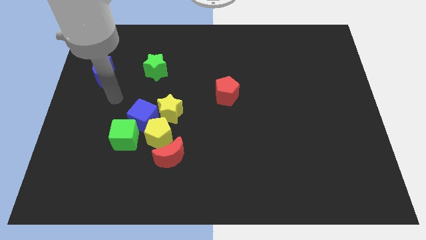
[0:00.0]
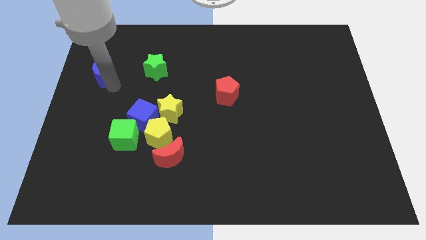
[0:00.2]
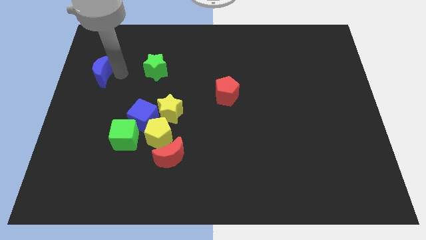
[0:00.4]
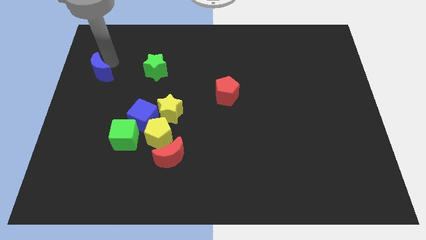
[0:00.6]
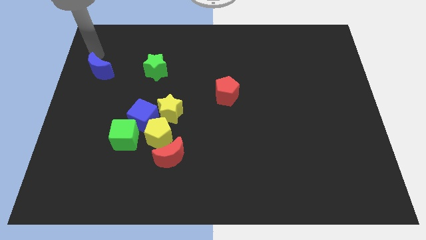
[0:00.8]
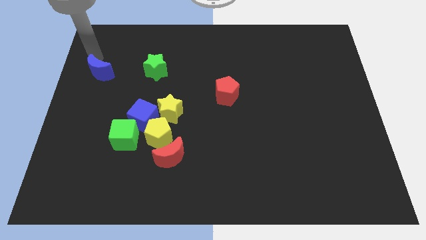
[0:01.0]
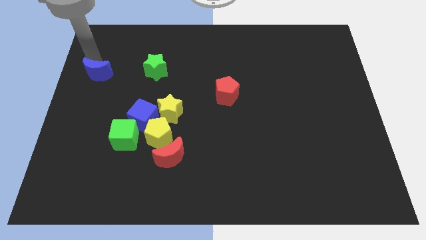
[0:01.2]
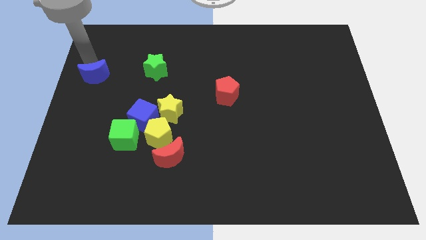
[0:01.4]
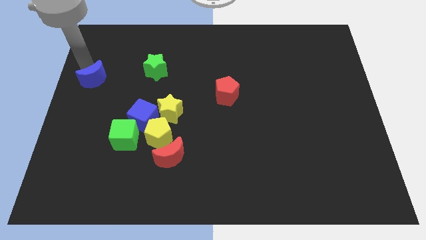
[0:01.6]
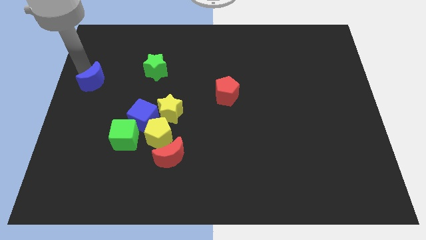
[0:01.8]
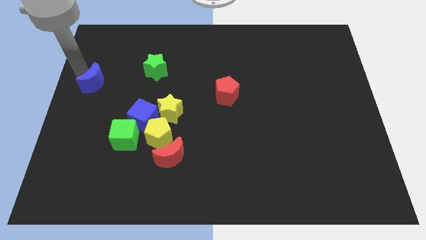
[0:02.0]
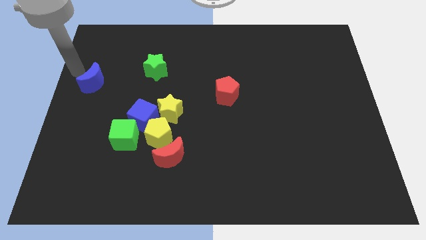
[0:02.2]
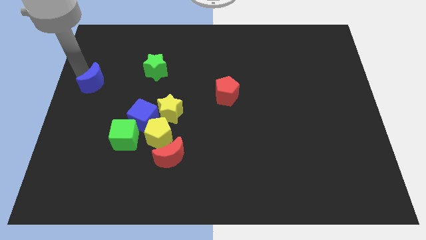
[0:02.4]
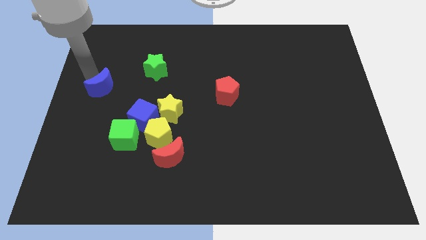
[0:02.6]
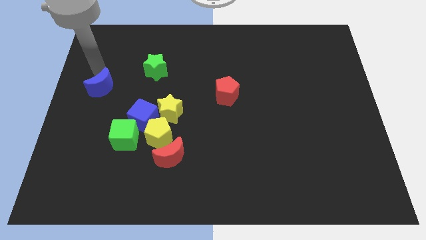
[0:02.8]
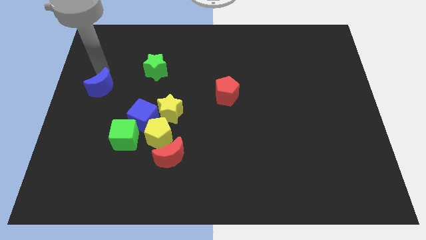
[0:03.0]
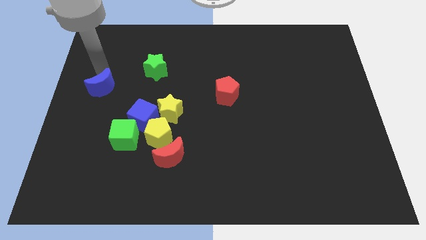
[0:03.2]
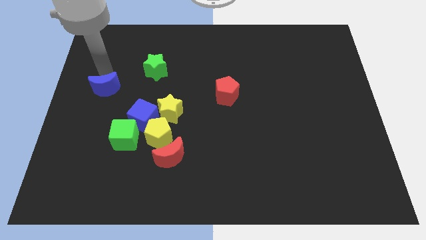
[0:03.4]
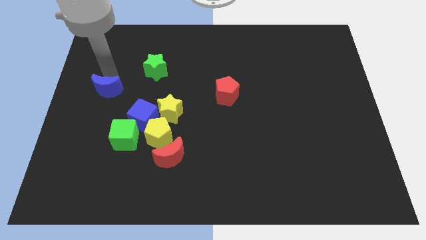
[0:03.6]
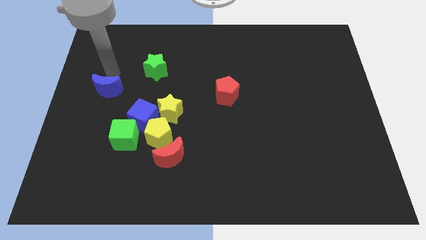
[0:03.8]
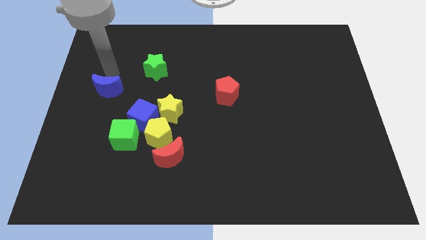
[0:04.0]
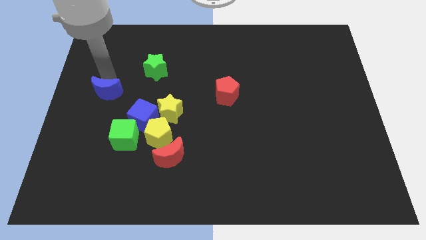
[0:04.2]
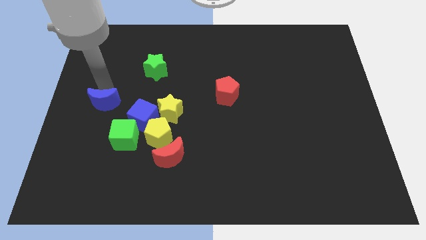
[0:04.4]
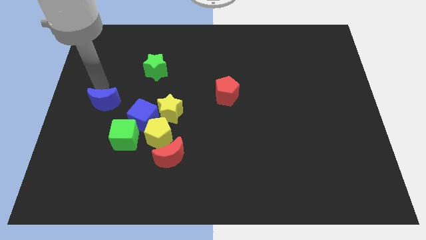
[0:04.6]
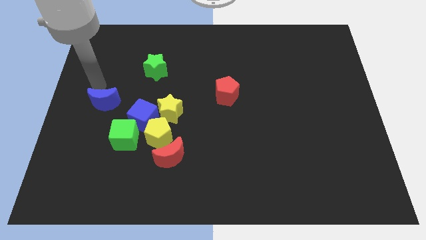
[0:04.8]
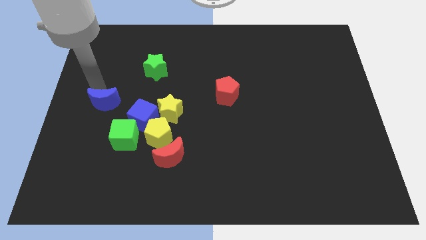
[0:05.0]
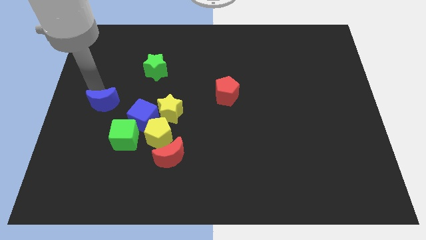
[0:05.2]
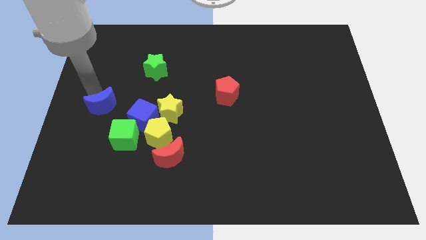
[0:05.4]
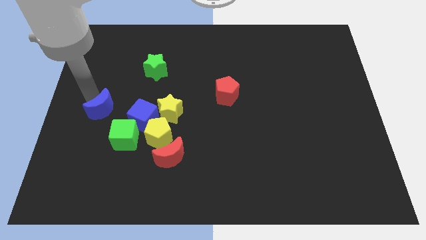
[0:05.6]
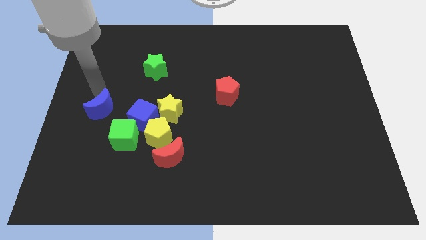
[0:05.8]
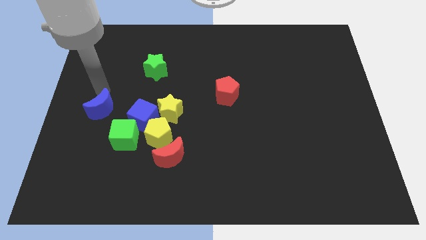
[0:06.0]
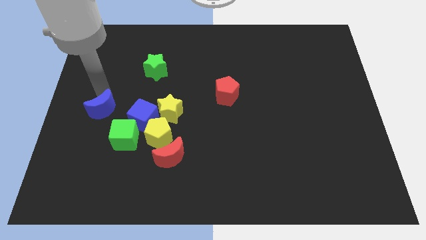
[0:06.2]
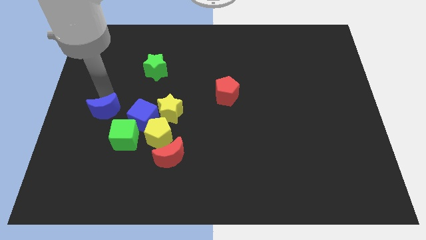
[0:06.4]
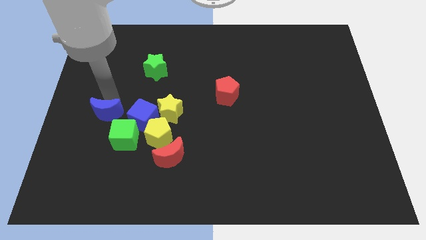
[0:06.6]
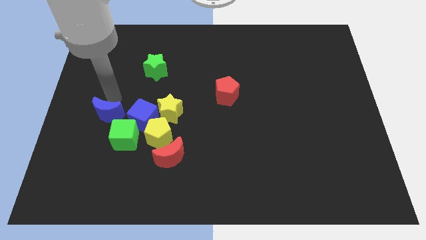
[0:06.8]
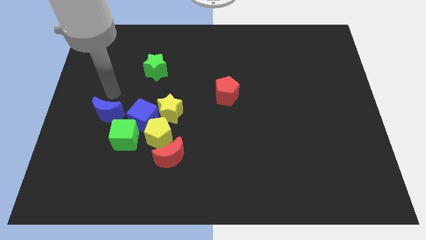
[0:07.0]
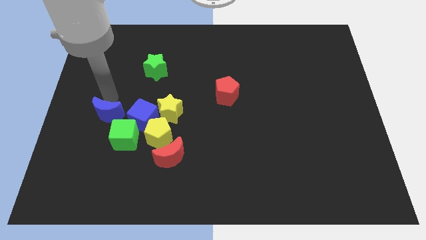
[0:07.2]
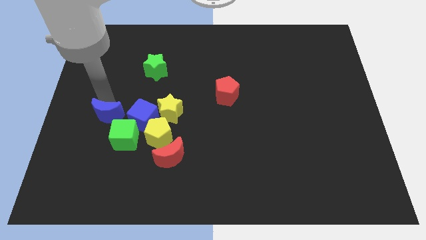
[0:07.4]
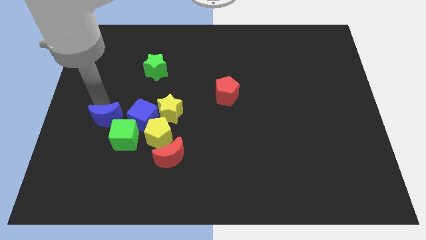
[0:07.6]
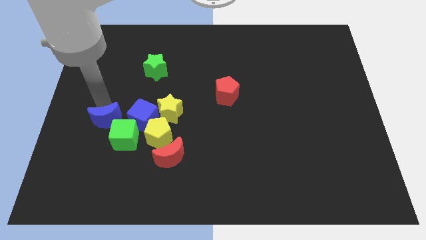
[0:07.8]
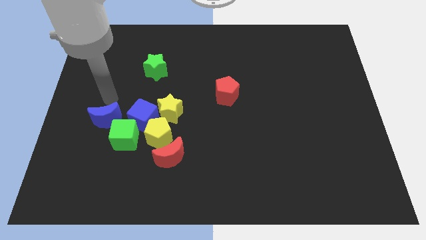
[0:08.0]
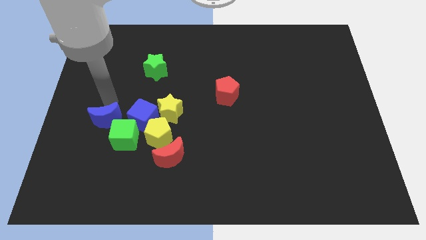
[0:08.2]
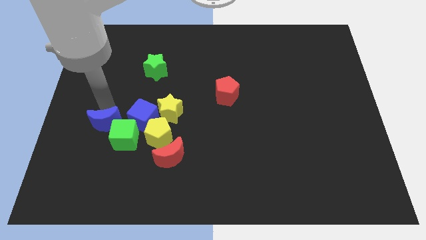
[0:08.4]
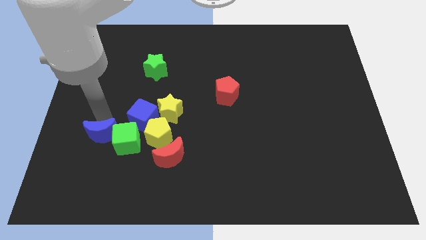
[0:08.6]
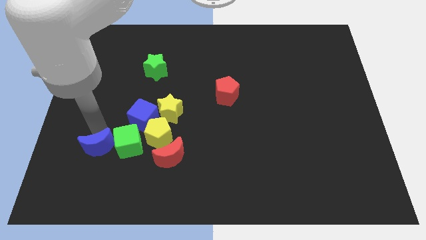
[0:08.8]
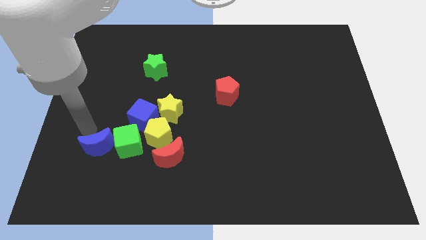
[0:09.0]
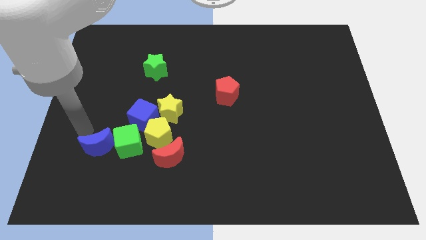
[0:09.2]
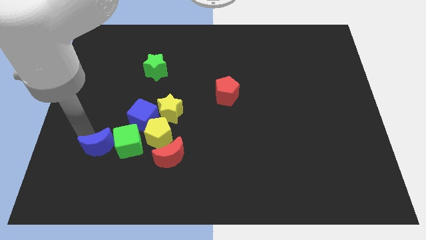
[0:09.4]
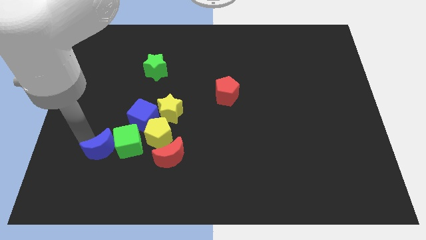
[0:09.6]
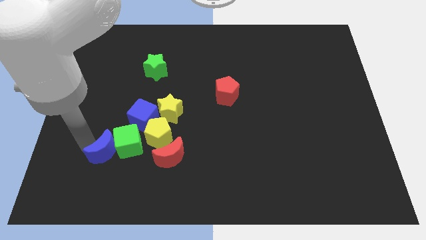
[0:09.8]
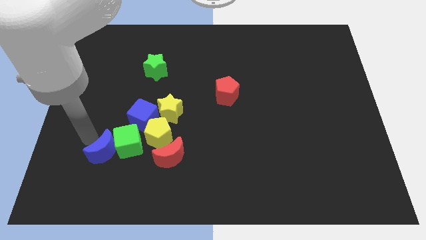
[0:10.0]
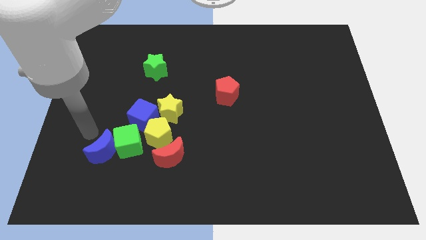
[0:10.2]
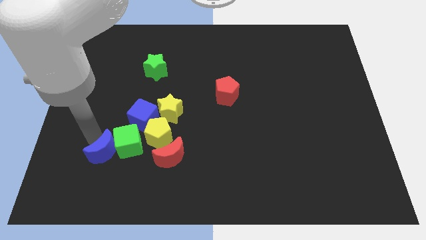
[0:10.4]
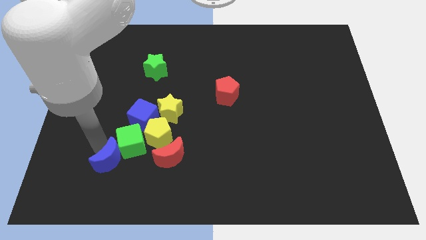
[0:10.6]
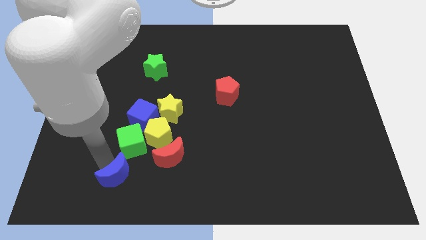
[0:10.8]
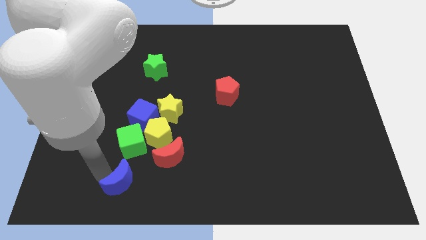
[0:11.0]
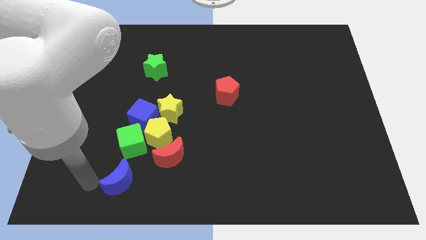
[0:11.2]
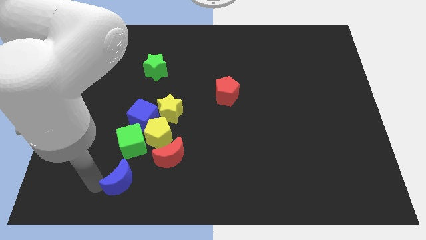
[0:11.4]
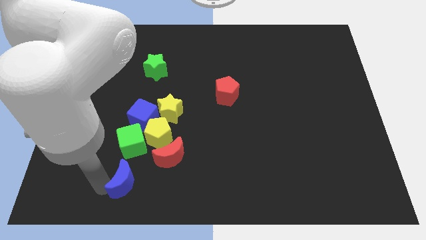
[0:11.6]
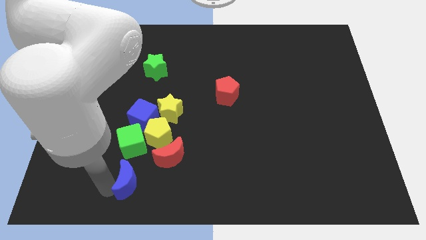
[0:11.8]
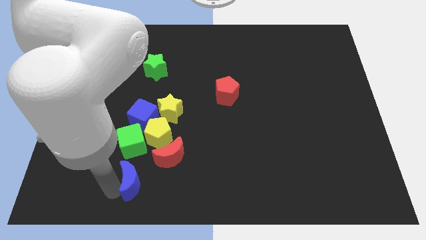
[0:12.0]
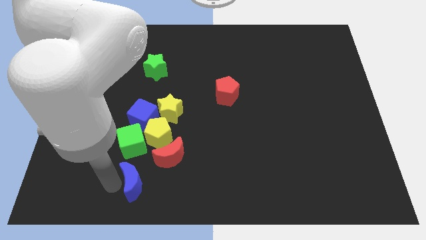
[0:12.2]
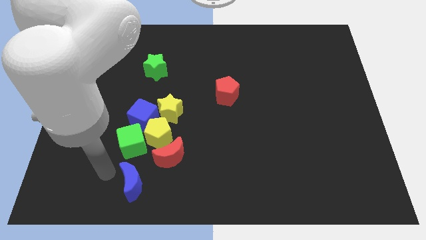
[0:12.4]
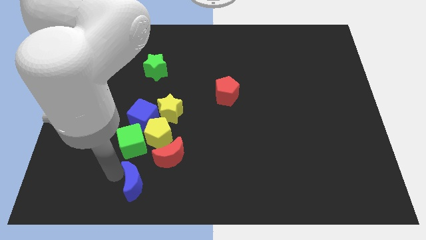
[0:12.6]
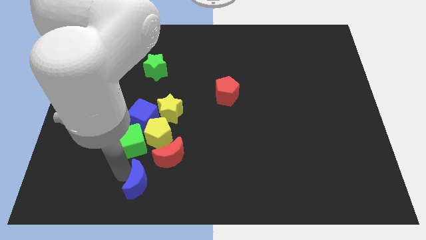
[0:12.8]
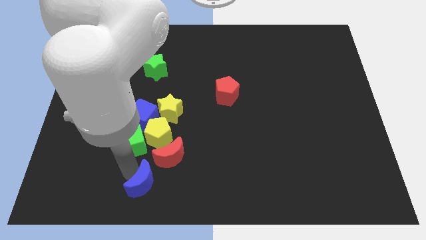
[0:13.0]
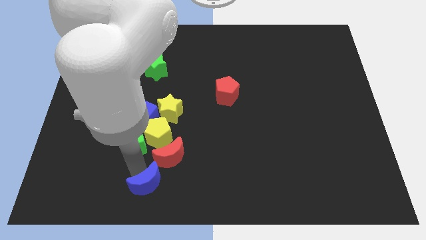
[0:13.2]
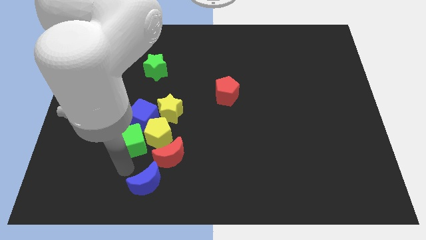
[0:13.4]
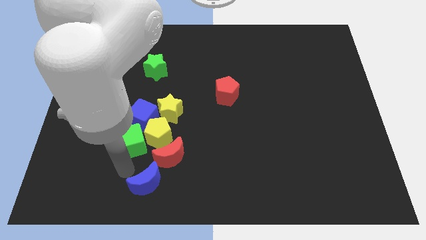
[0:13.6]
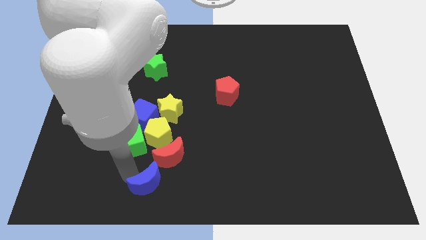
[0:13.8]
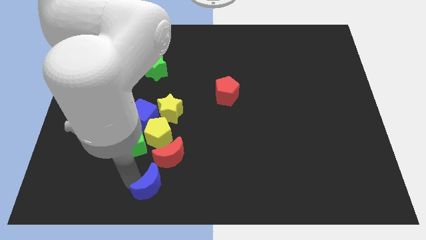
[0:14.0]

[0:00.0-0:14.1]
push the blue moon to the bottom side
